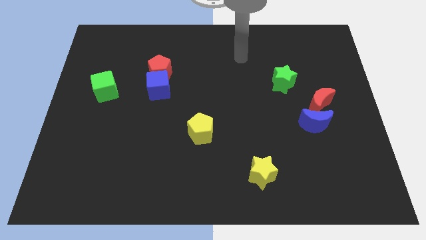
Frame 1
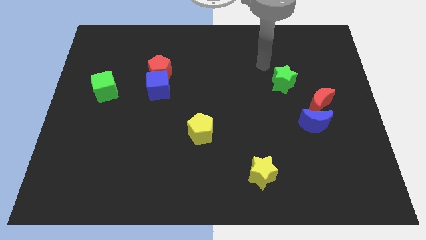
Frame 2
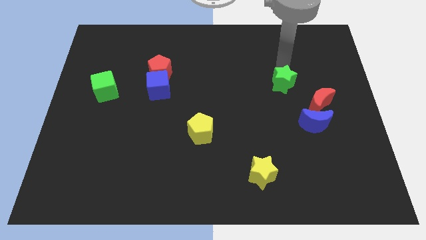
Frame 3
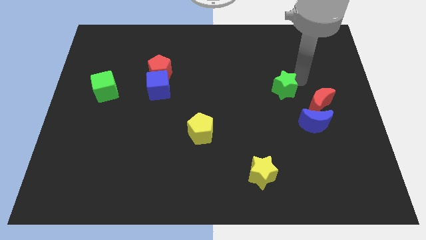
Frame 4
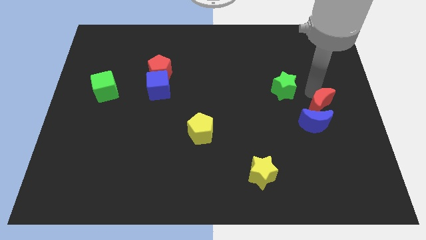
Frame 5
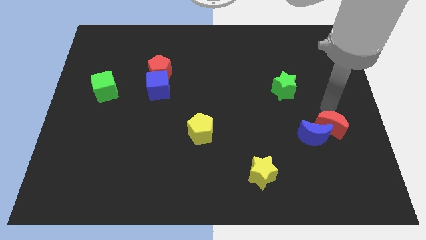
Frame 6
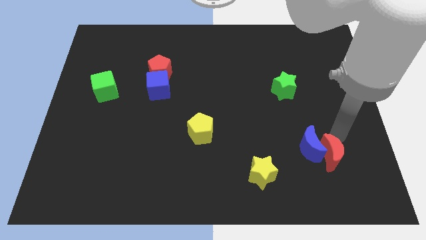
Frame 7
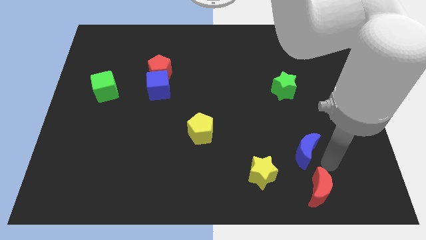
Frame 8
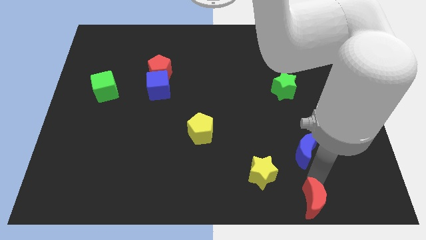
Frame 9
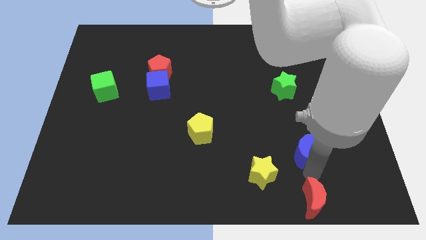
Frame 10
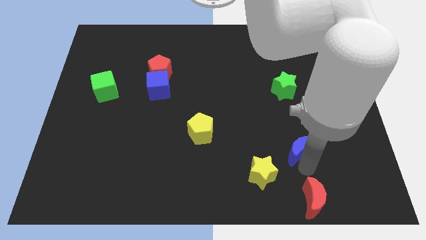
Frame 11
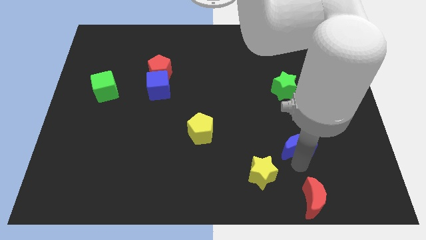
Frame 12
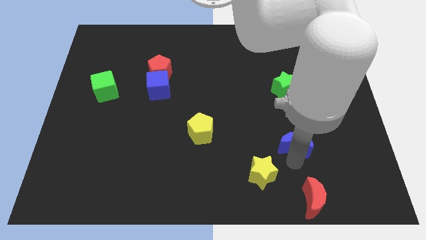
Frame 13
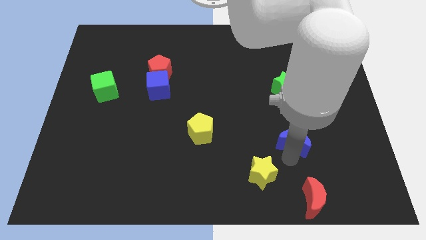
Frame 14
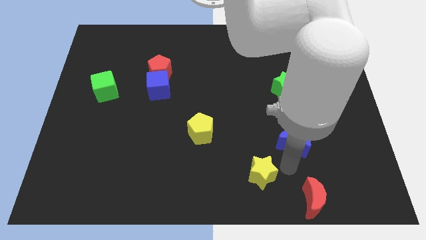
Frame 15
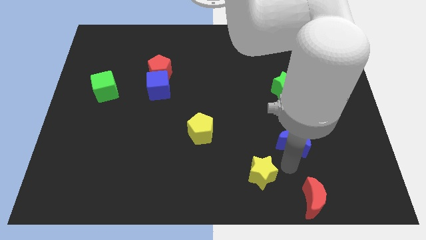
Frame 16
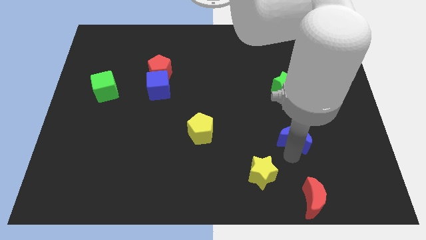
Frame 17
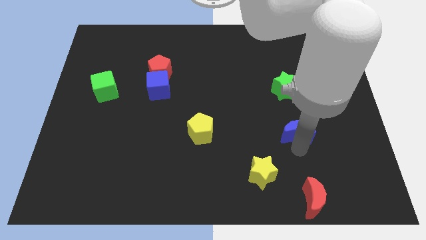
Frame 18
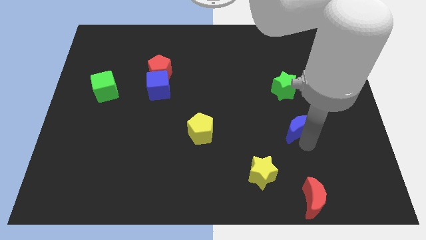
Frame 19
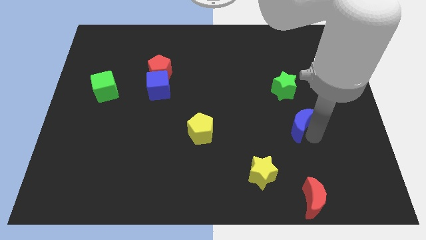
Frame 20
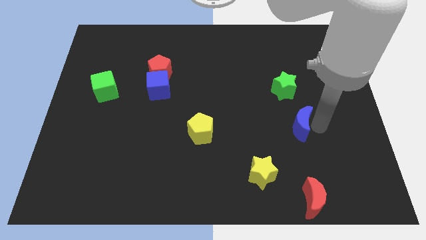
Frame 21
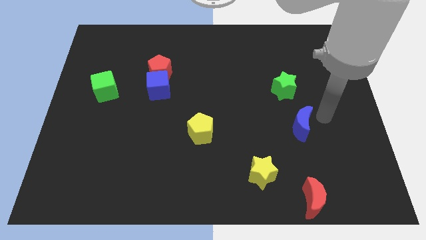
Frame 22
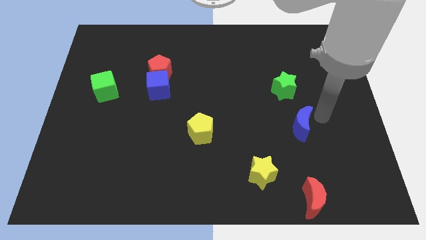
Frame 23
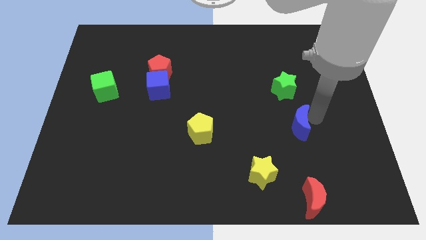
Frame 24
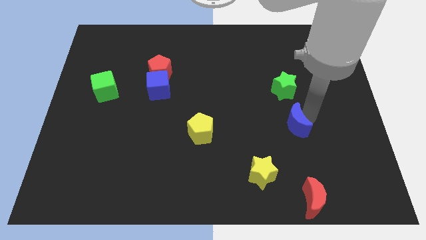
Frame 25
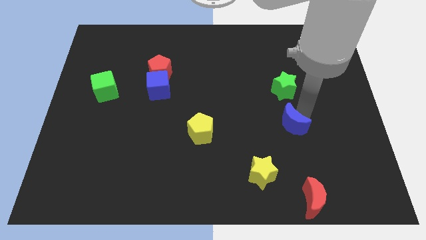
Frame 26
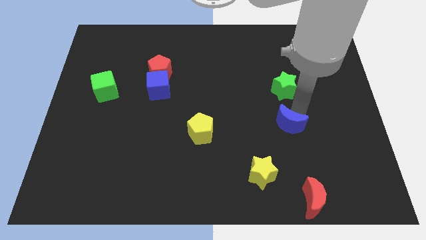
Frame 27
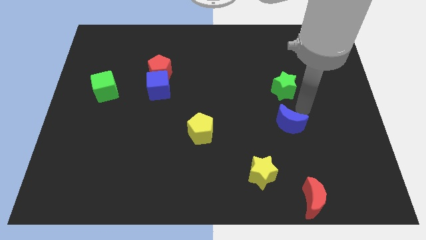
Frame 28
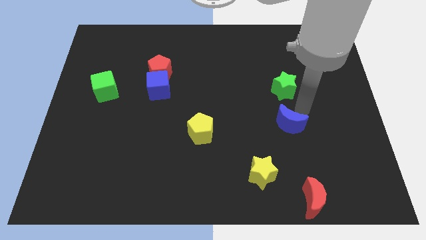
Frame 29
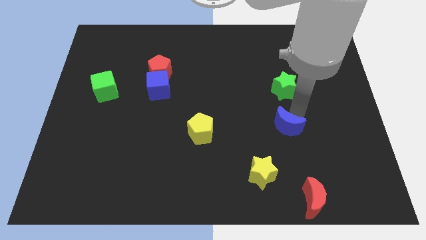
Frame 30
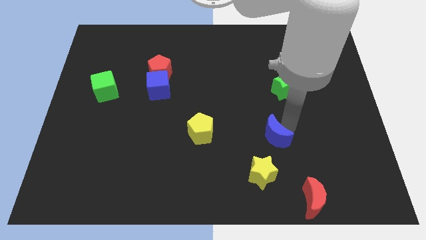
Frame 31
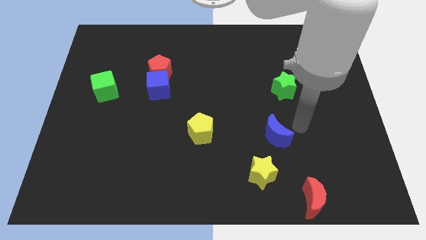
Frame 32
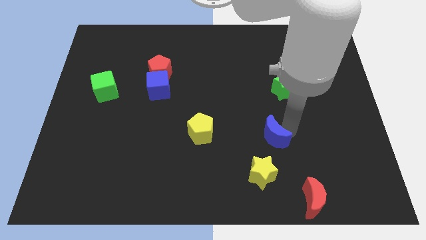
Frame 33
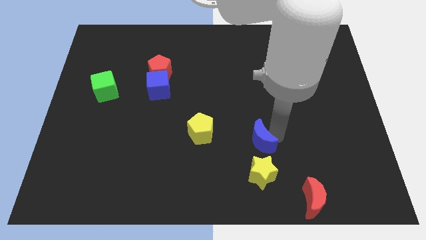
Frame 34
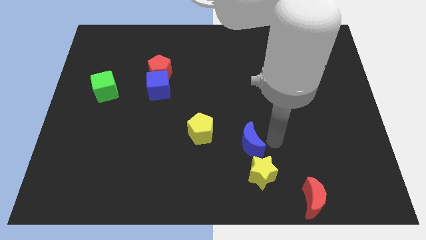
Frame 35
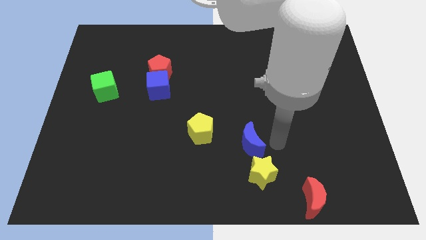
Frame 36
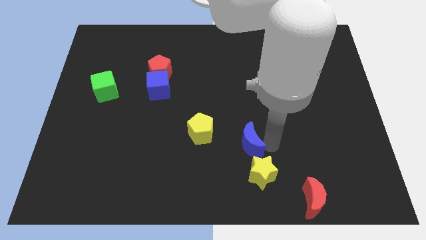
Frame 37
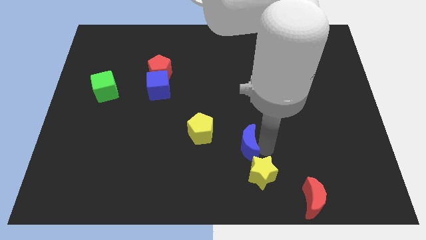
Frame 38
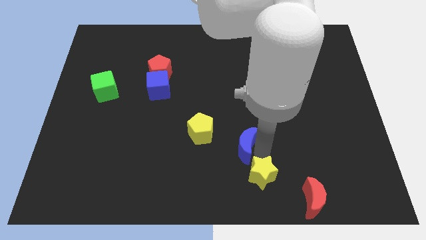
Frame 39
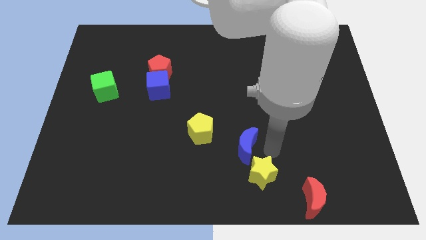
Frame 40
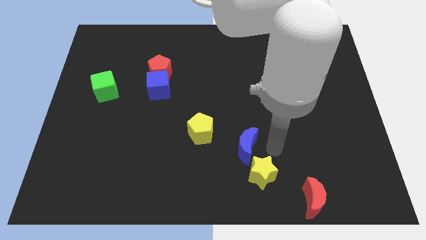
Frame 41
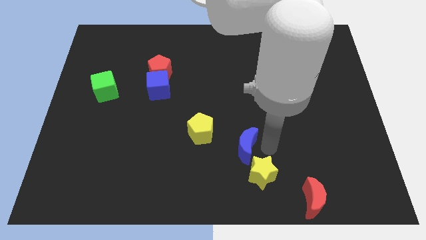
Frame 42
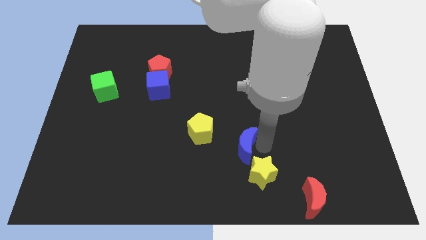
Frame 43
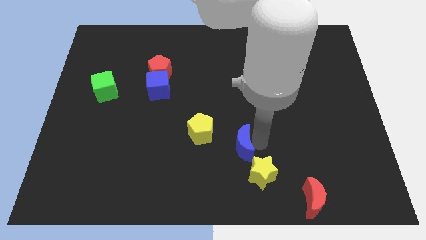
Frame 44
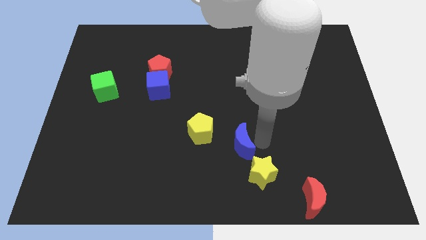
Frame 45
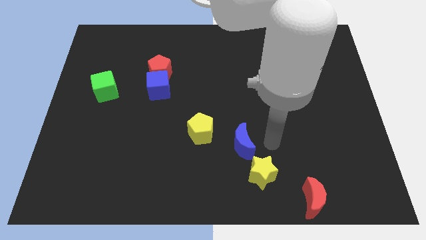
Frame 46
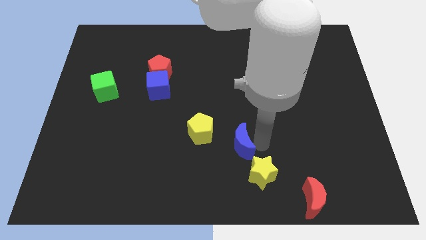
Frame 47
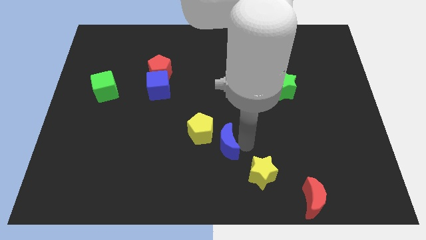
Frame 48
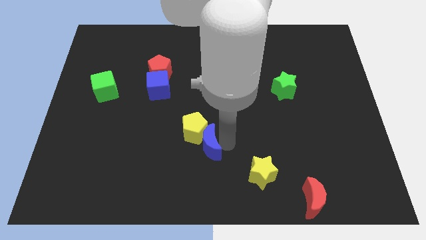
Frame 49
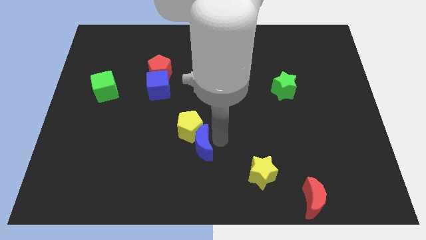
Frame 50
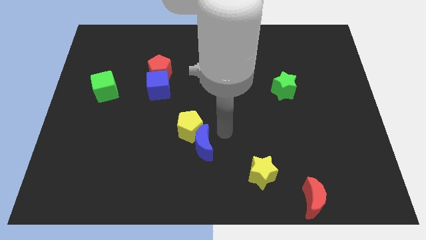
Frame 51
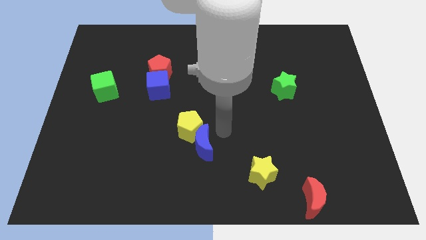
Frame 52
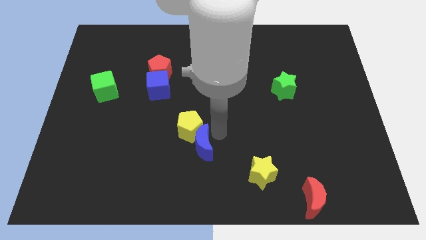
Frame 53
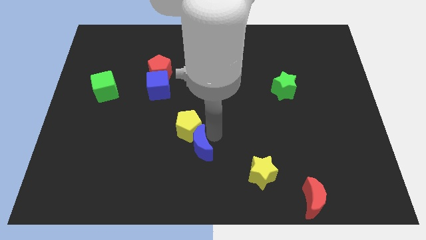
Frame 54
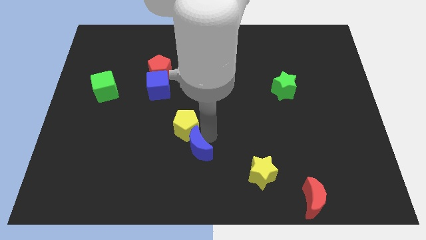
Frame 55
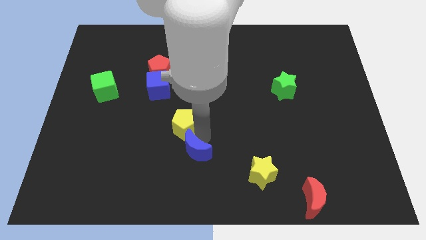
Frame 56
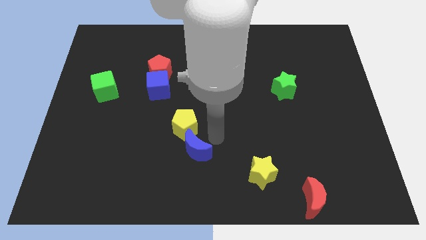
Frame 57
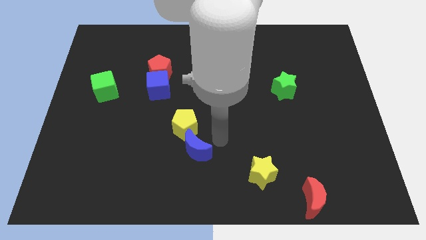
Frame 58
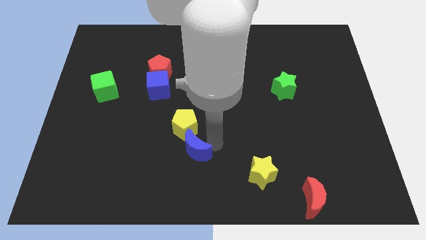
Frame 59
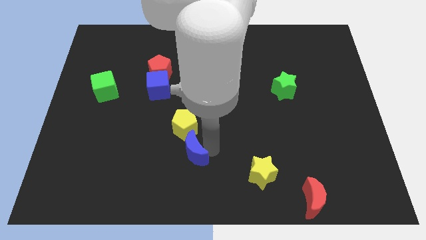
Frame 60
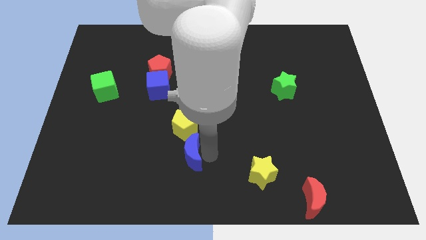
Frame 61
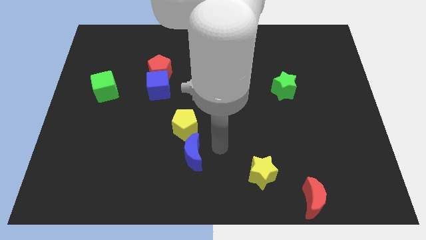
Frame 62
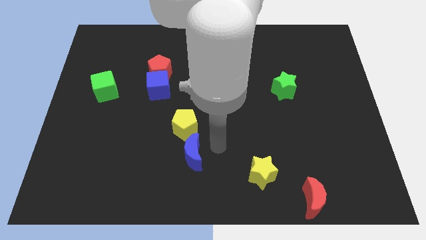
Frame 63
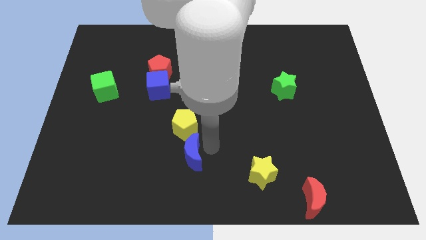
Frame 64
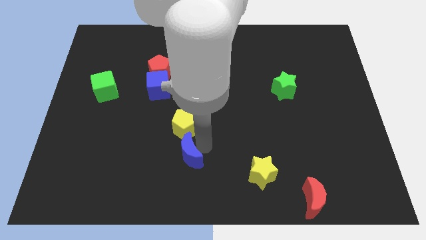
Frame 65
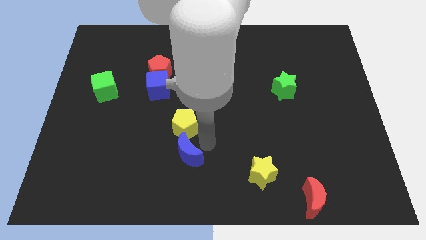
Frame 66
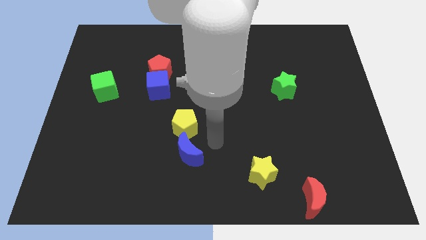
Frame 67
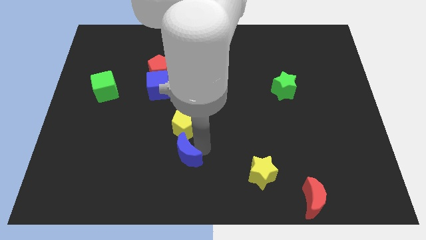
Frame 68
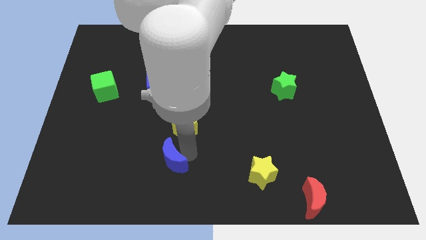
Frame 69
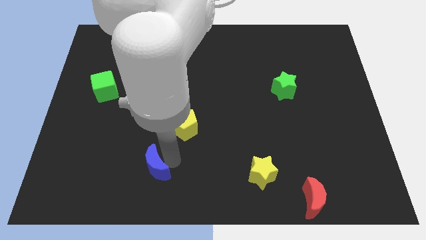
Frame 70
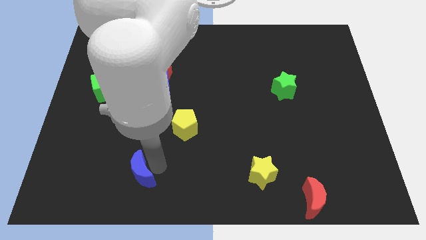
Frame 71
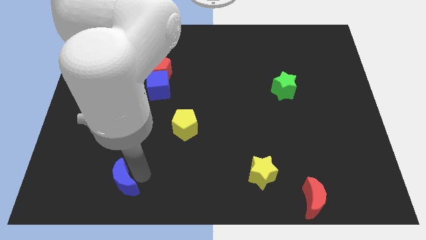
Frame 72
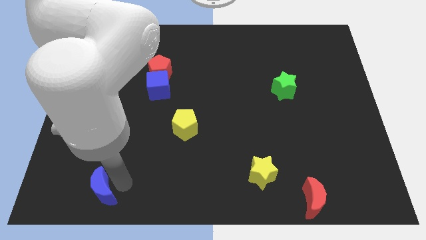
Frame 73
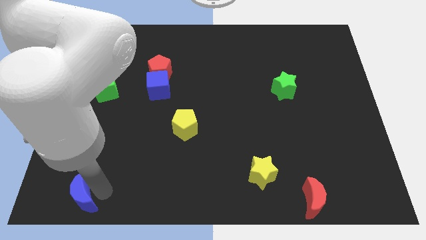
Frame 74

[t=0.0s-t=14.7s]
push the blue moon to the lower left corner
